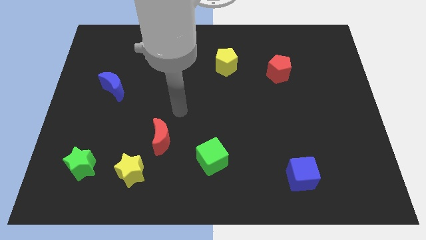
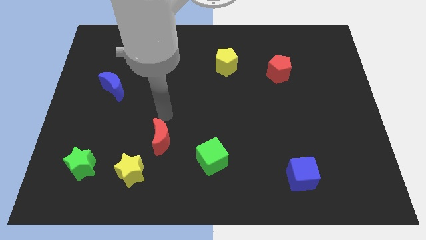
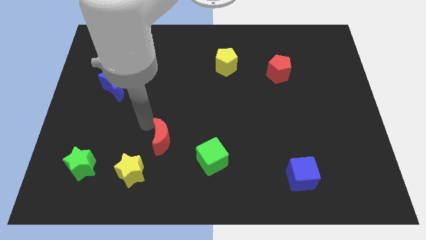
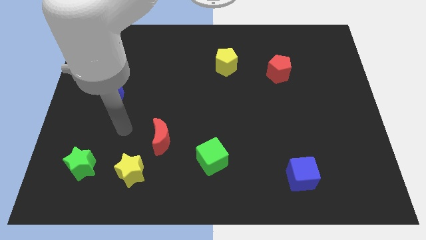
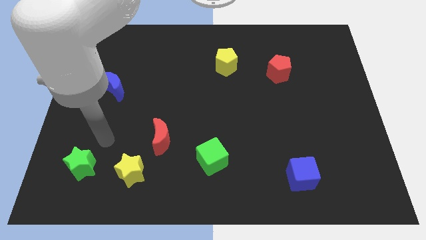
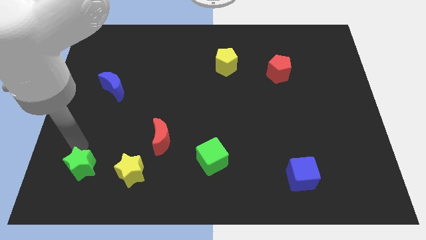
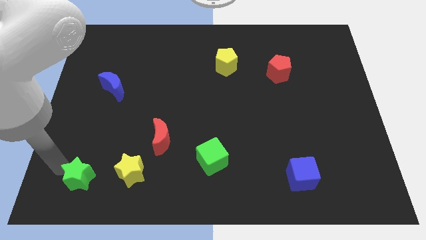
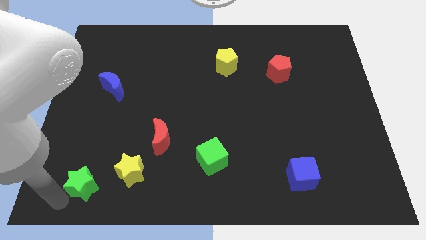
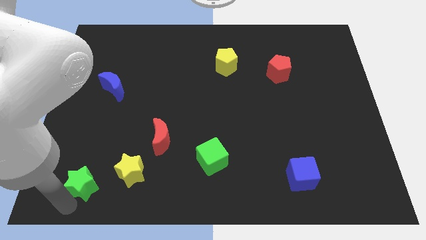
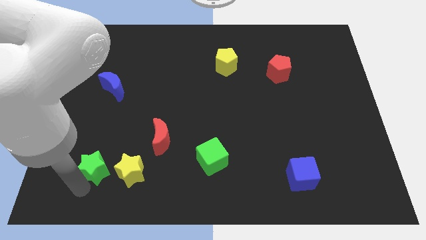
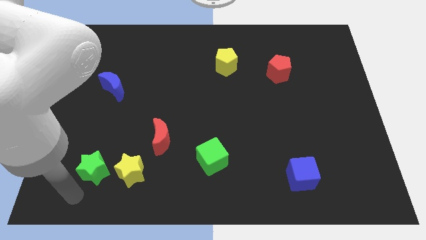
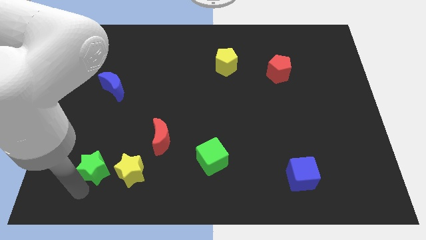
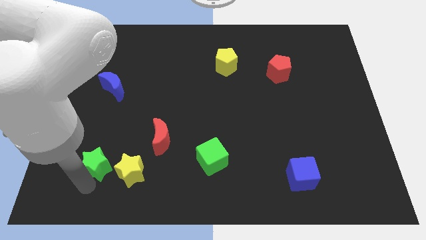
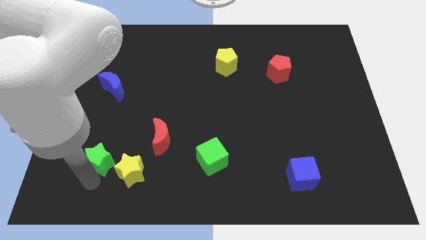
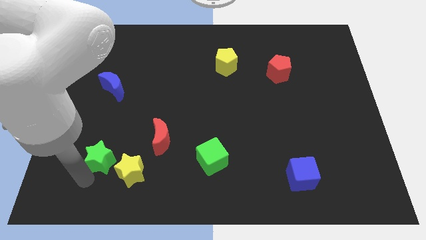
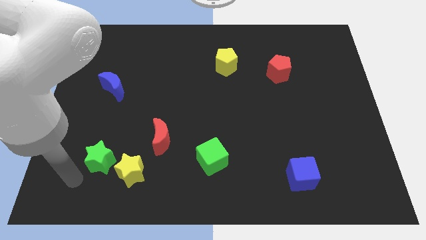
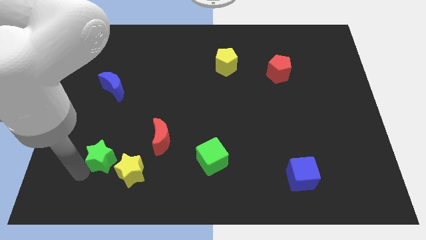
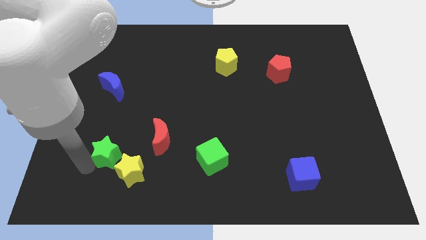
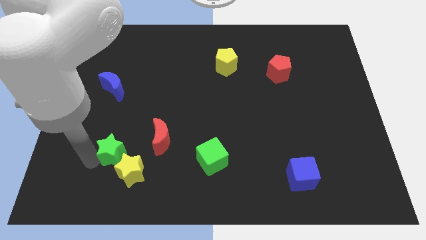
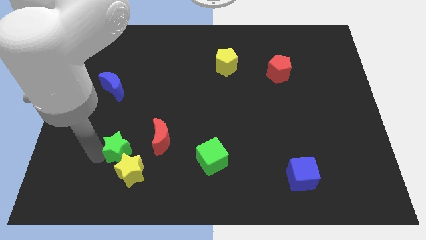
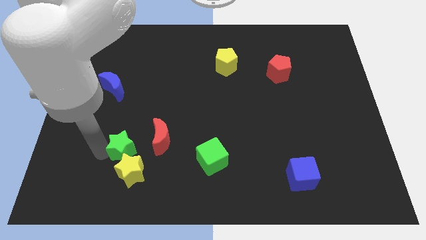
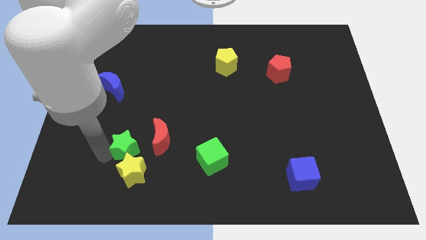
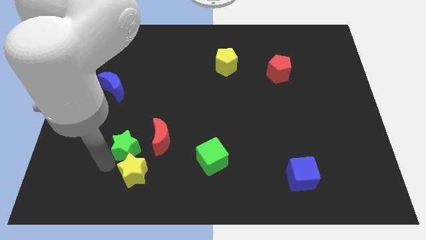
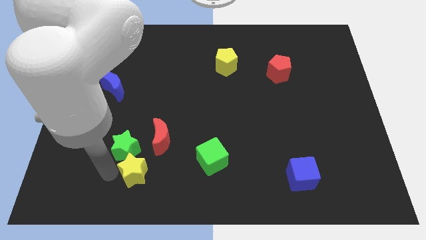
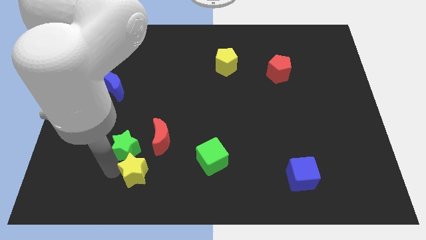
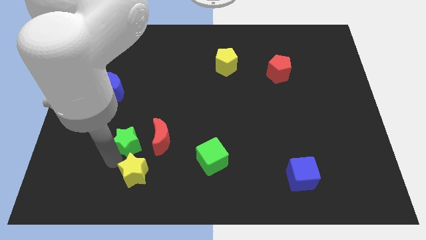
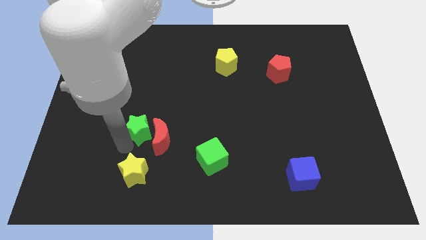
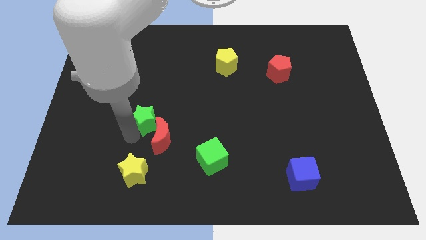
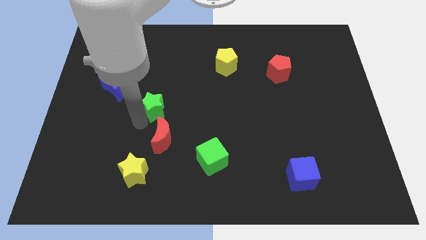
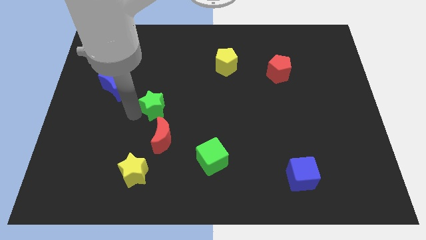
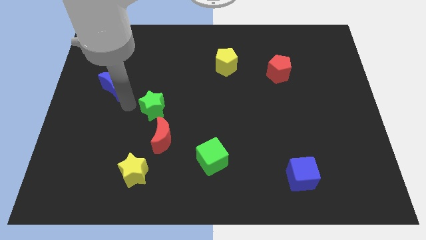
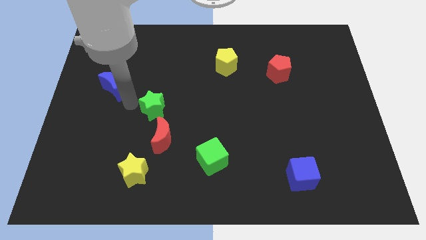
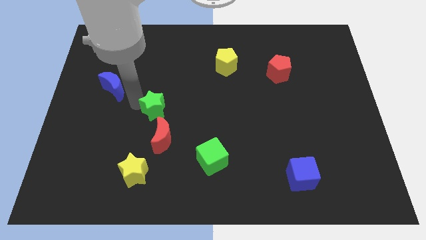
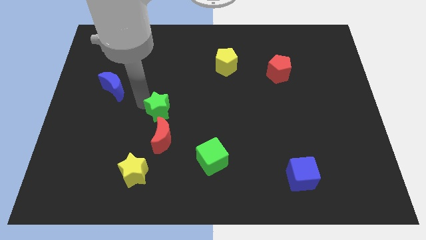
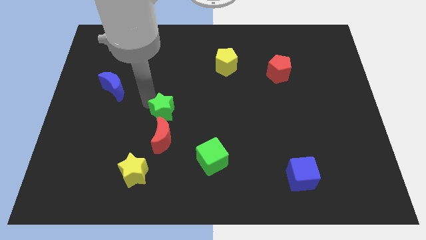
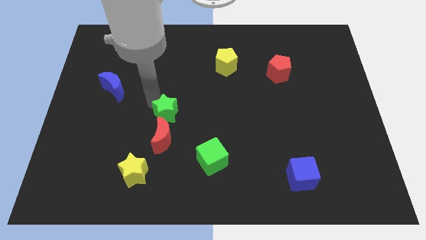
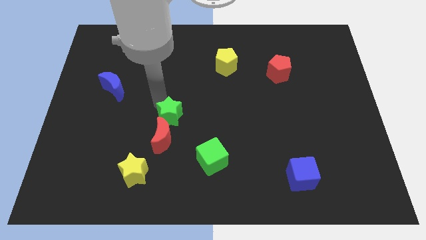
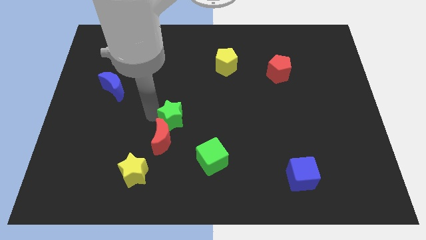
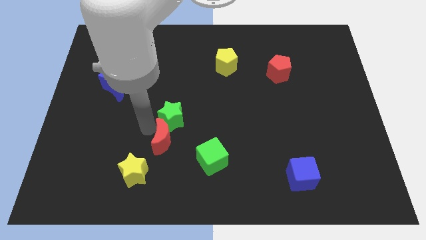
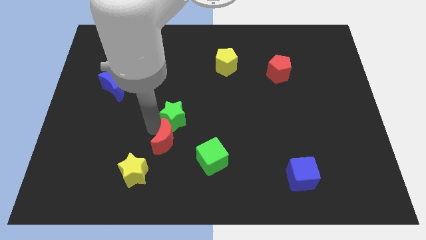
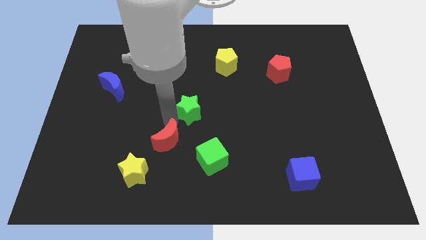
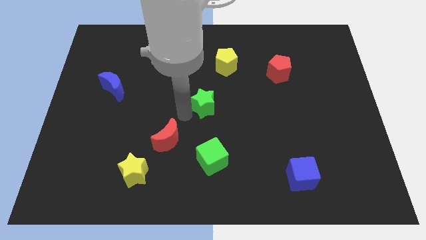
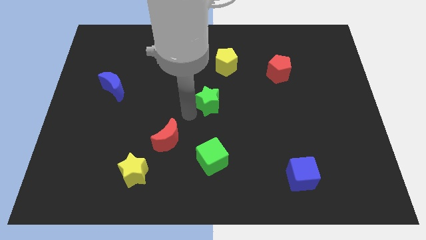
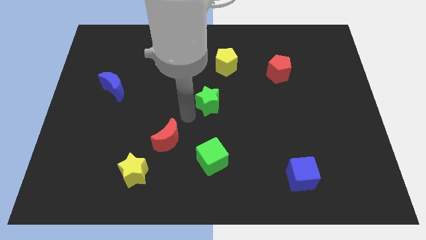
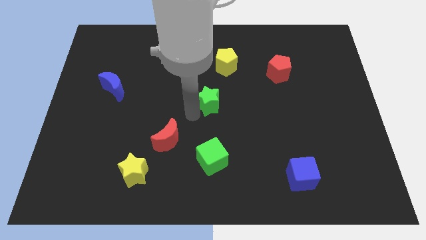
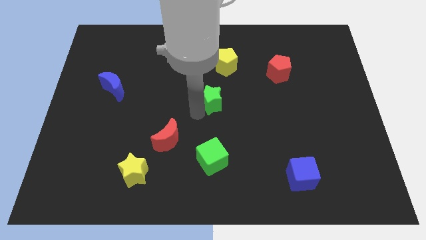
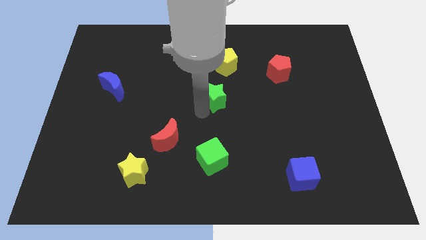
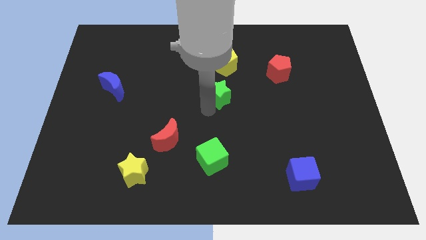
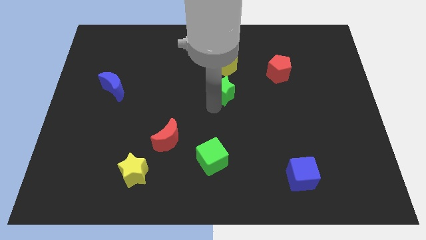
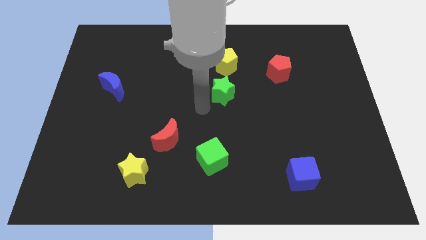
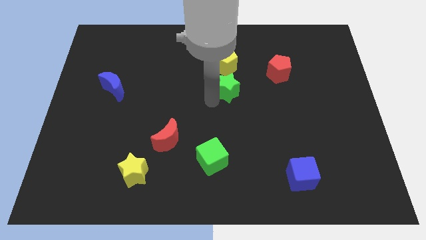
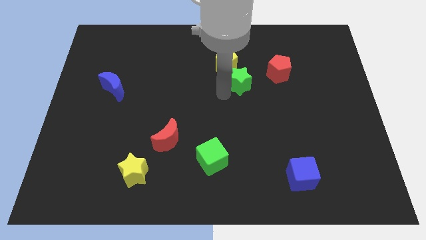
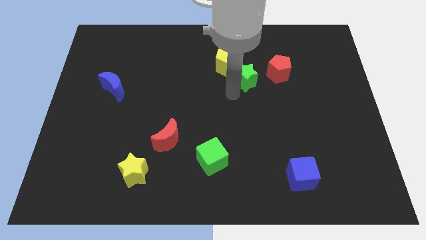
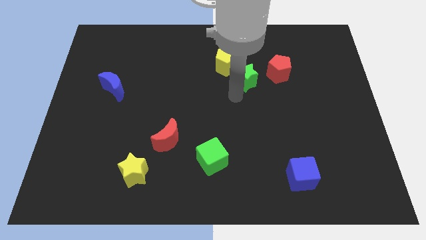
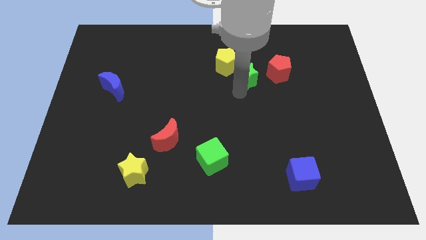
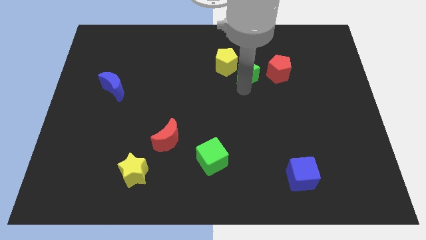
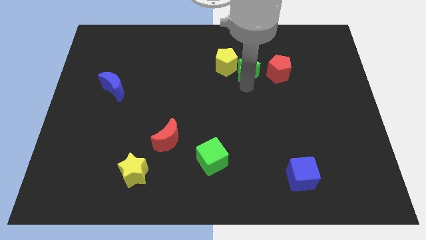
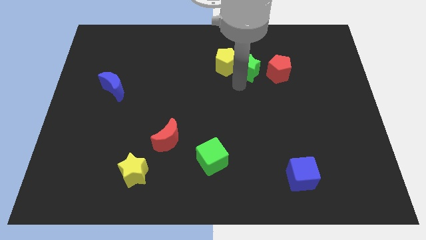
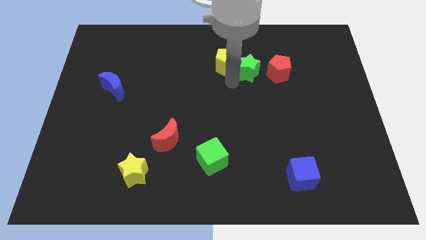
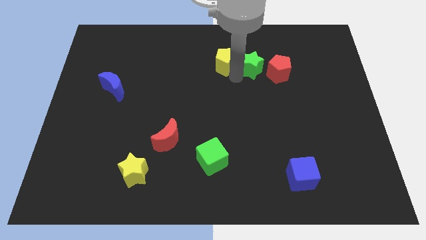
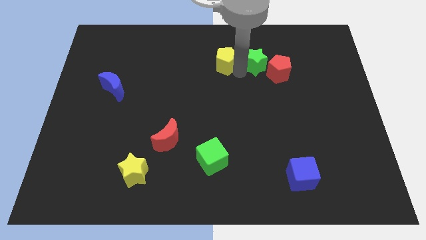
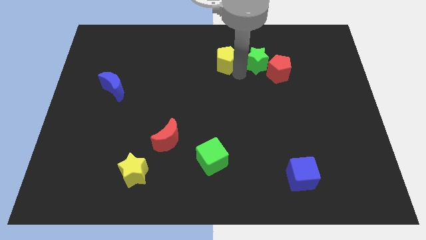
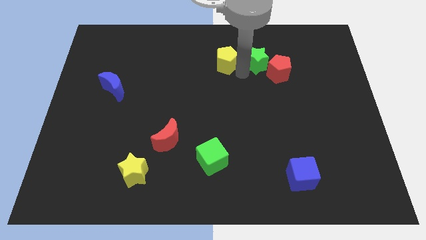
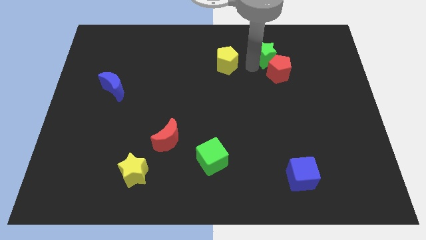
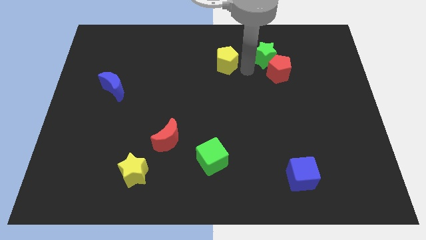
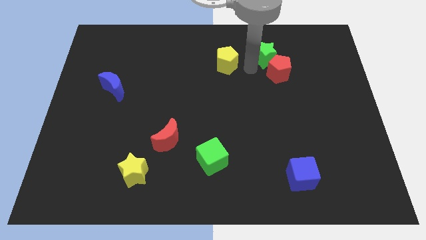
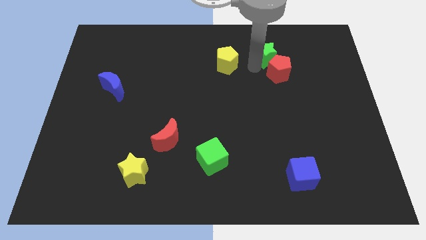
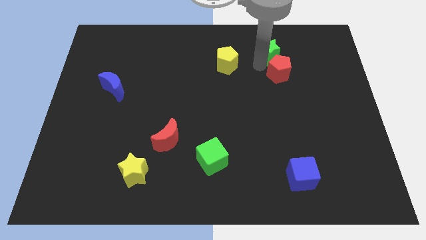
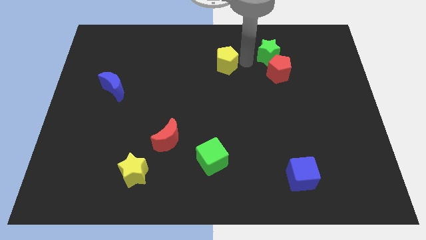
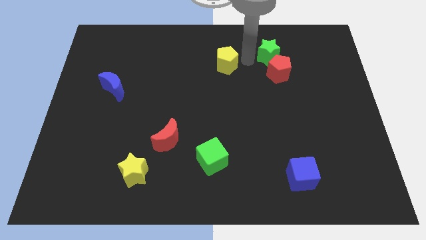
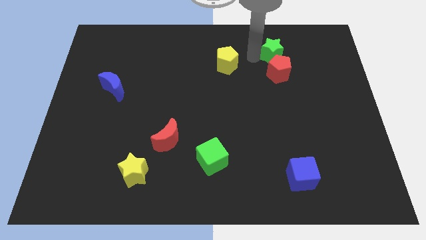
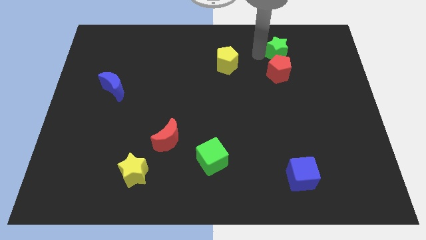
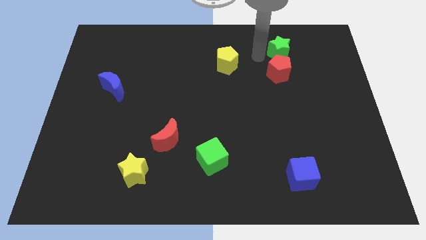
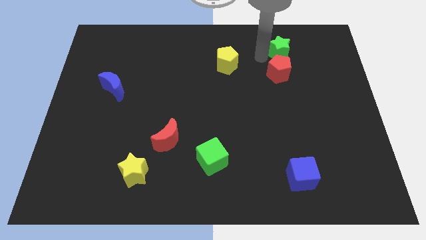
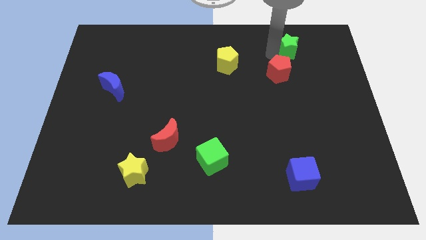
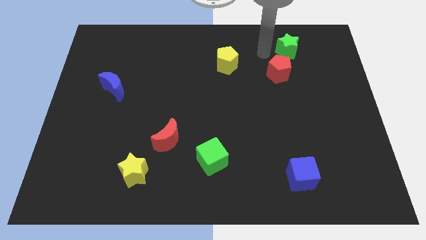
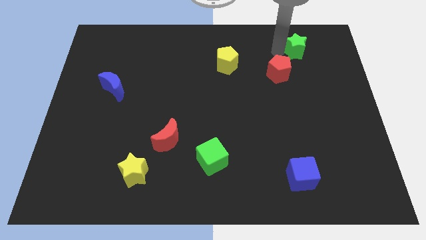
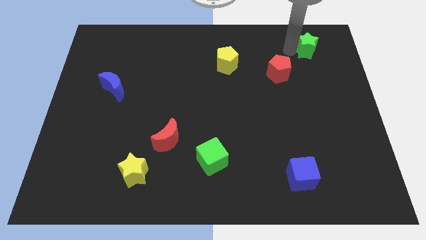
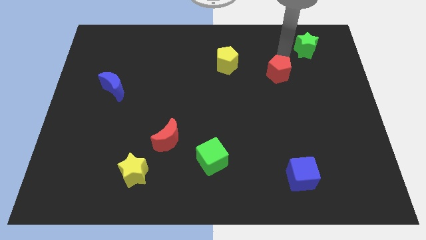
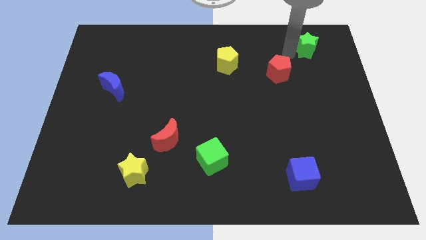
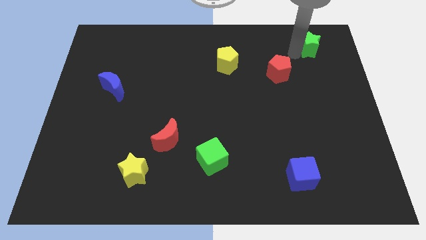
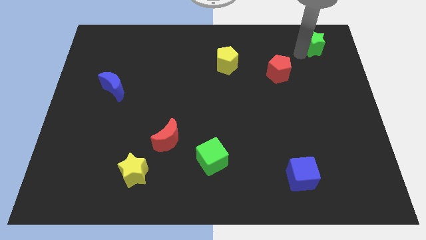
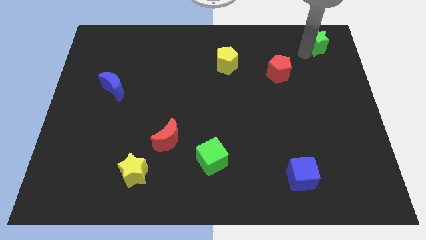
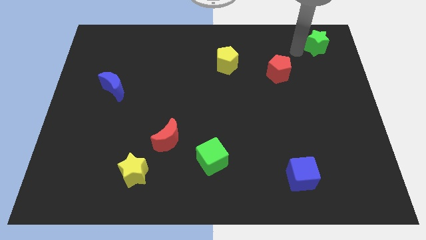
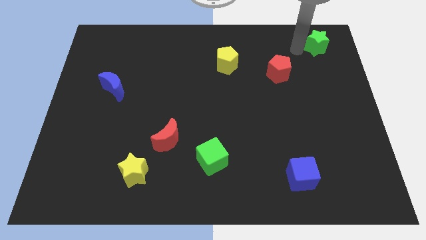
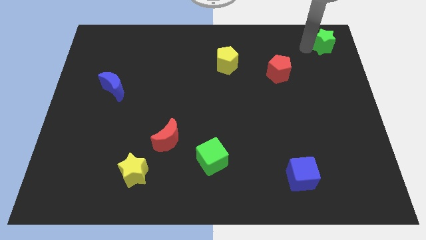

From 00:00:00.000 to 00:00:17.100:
slide the green star to the upper right corner
